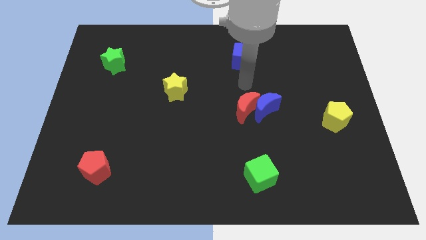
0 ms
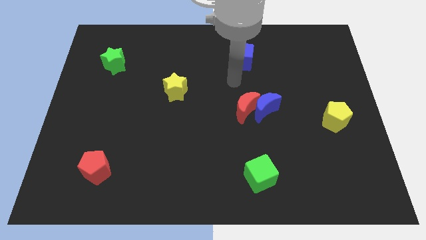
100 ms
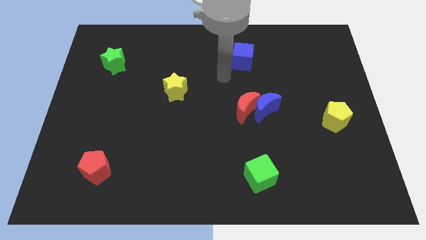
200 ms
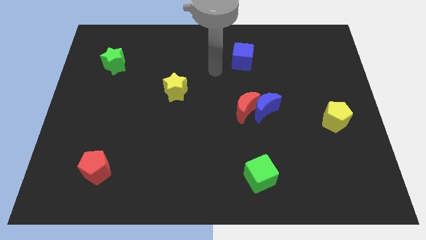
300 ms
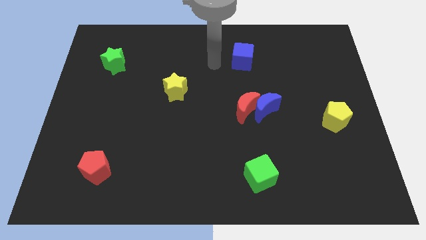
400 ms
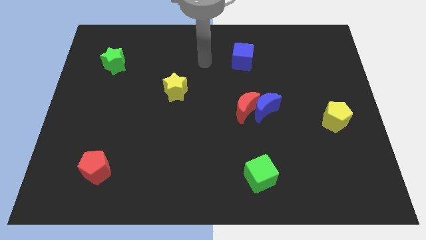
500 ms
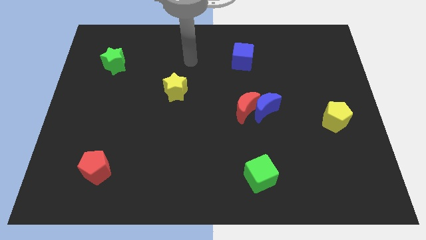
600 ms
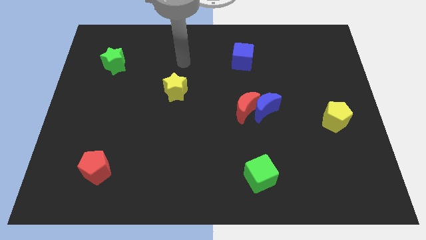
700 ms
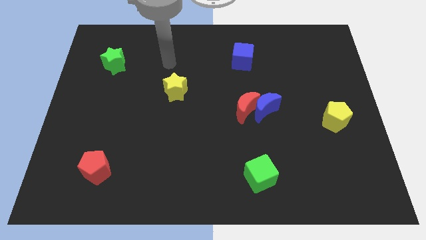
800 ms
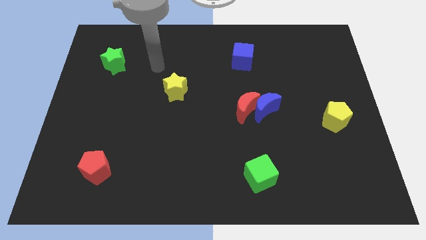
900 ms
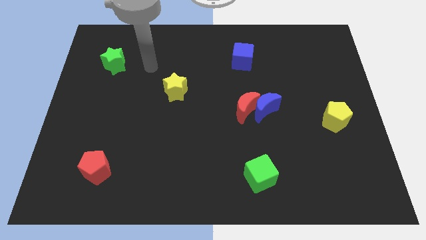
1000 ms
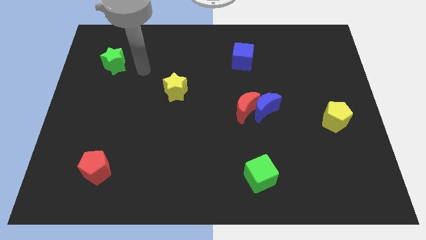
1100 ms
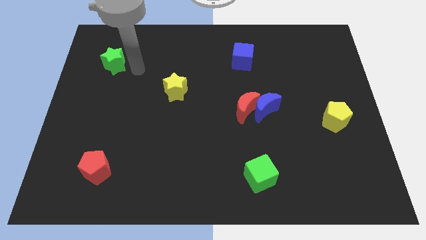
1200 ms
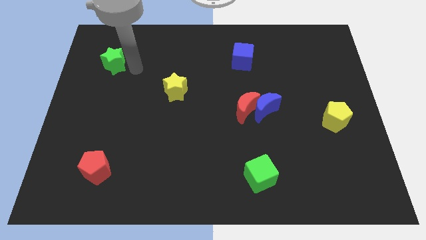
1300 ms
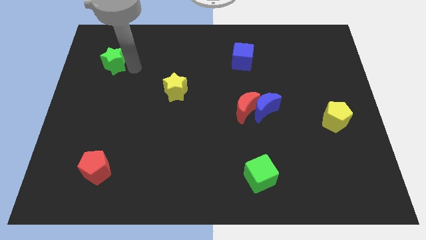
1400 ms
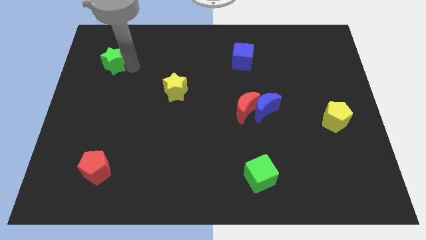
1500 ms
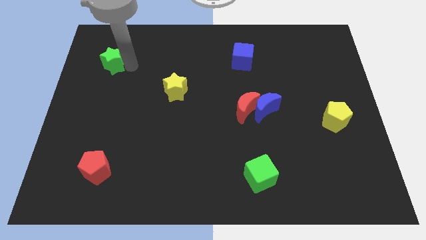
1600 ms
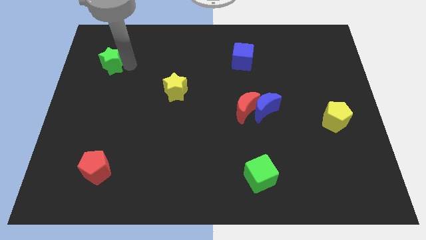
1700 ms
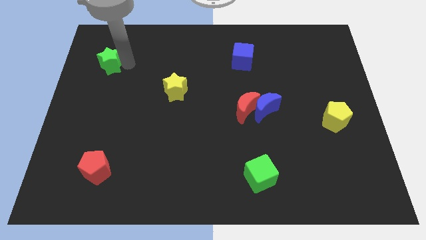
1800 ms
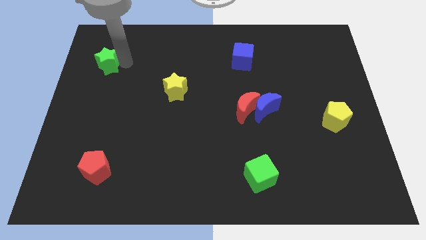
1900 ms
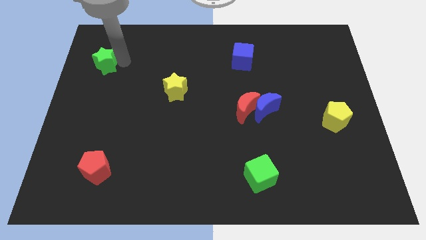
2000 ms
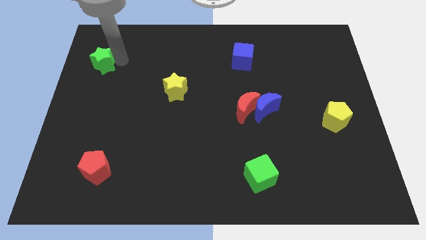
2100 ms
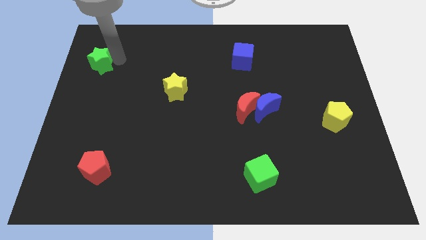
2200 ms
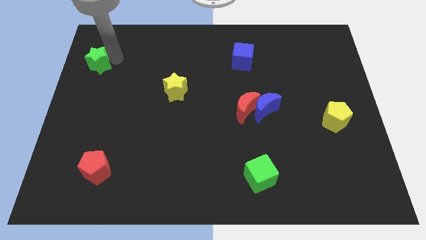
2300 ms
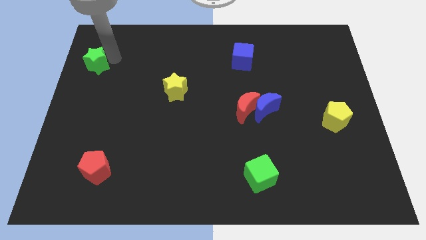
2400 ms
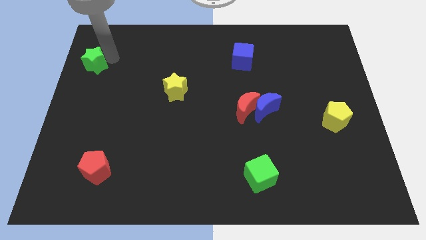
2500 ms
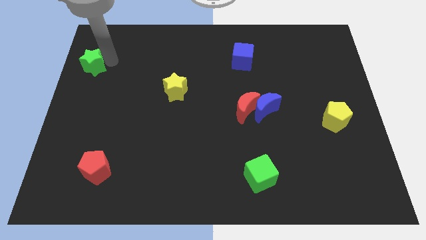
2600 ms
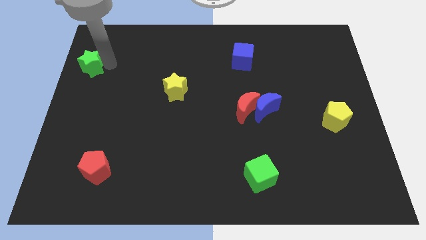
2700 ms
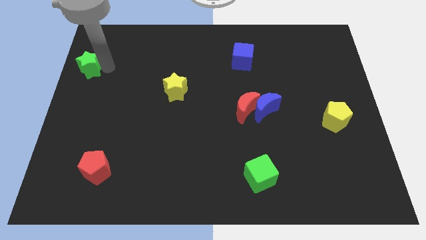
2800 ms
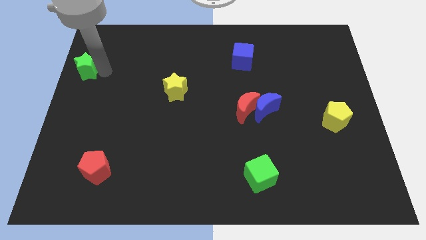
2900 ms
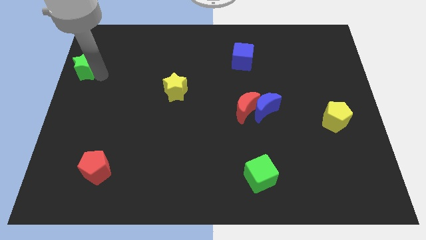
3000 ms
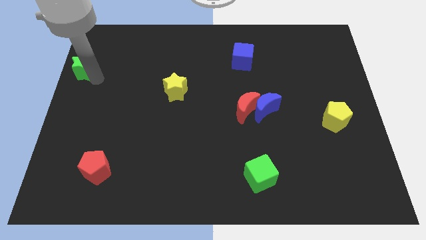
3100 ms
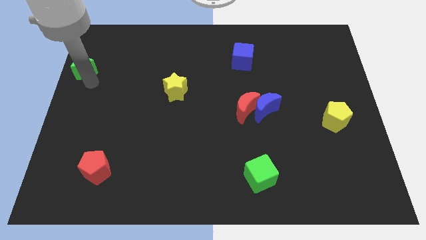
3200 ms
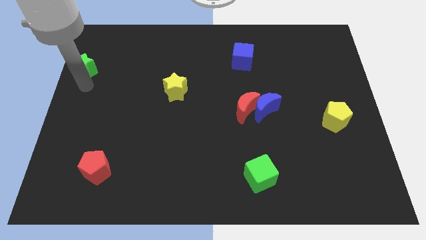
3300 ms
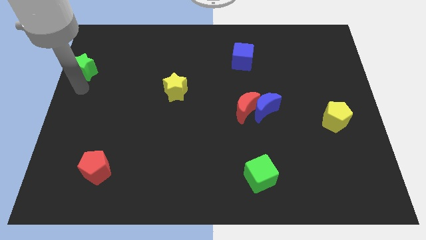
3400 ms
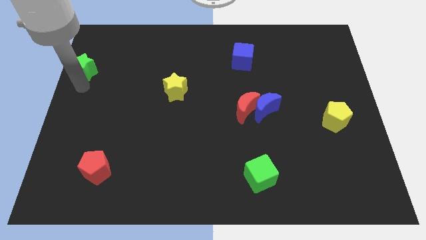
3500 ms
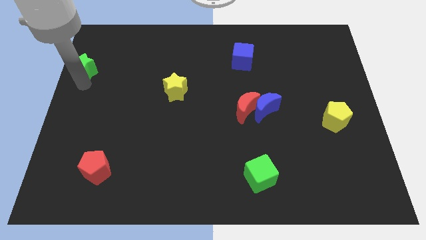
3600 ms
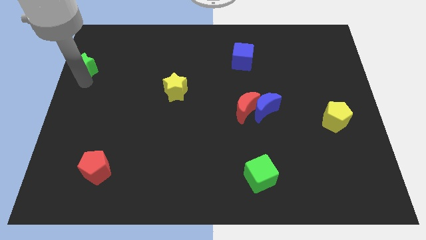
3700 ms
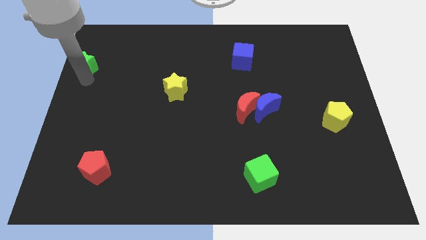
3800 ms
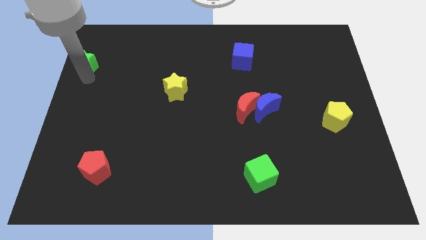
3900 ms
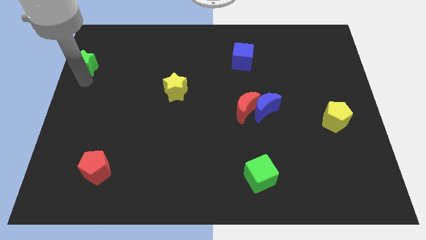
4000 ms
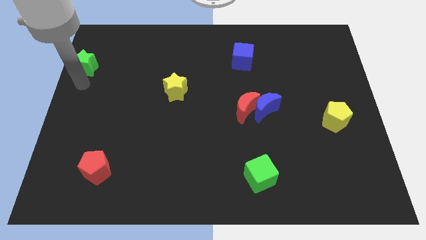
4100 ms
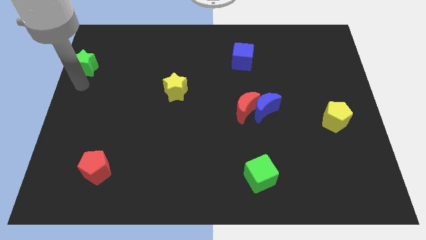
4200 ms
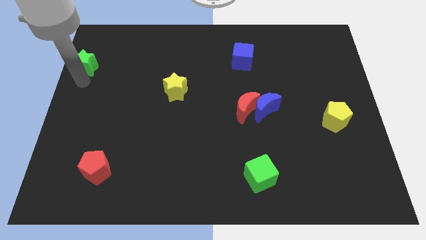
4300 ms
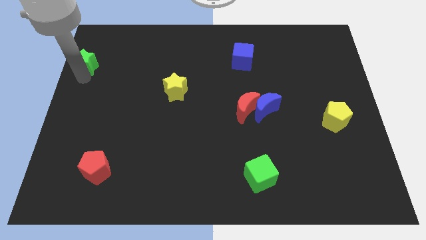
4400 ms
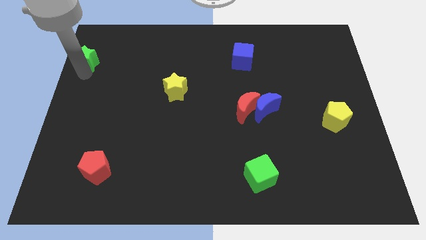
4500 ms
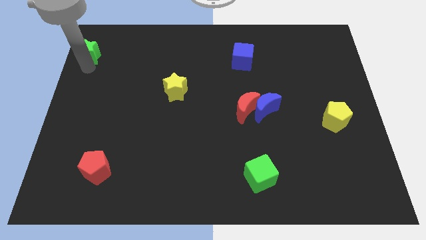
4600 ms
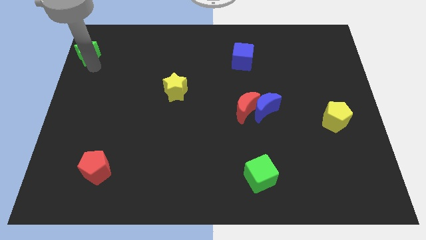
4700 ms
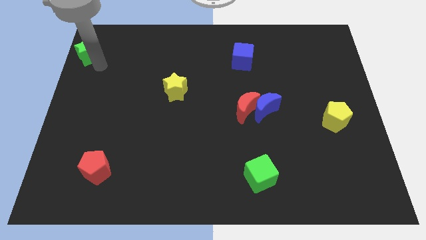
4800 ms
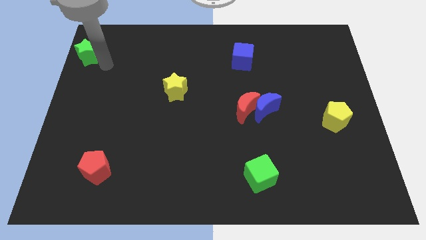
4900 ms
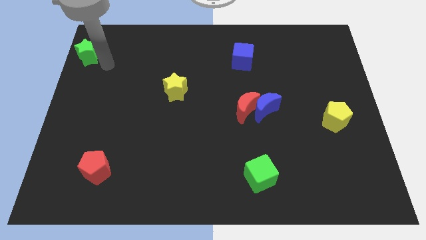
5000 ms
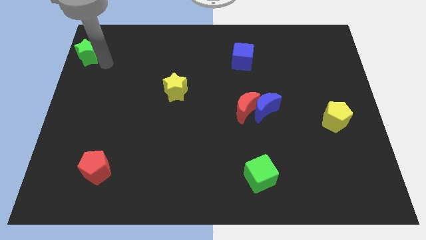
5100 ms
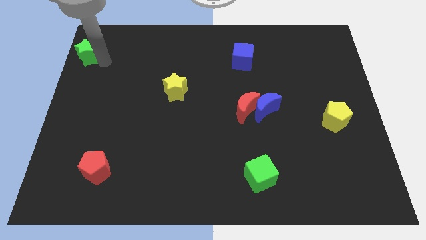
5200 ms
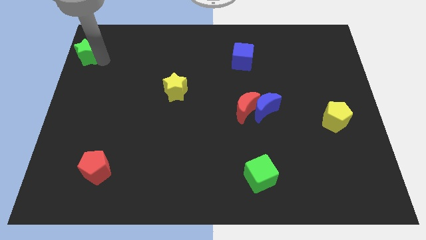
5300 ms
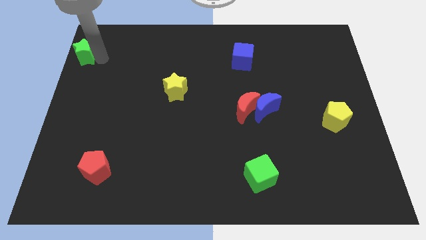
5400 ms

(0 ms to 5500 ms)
slide the green star to the upper left corner

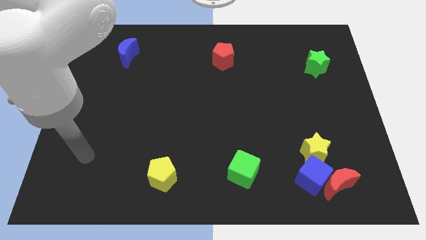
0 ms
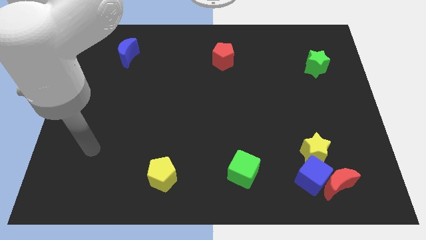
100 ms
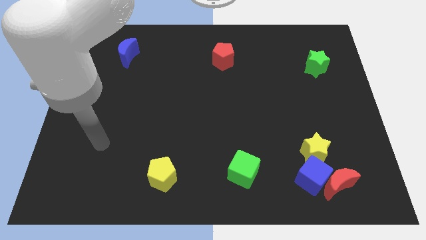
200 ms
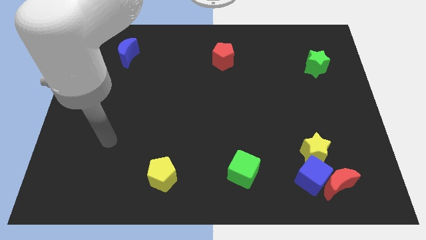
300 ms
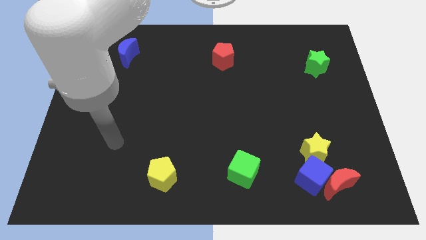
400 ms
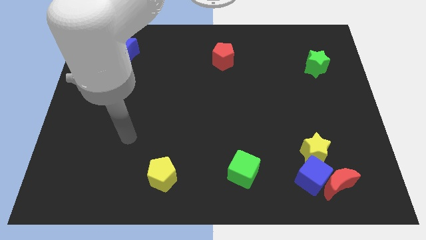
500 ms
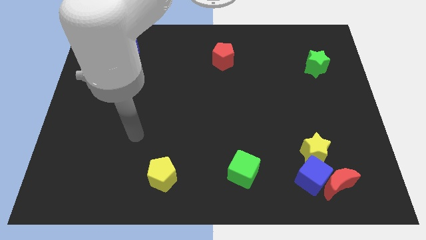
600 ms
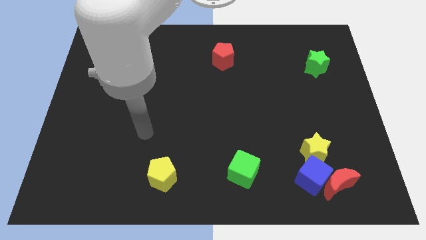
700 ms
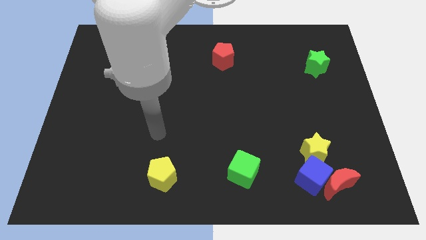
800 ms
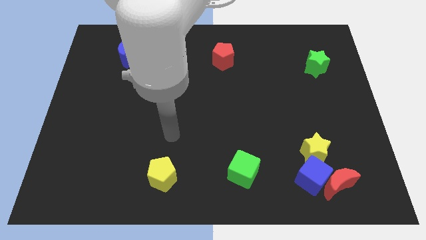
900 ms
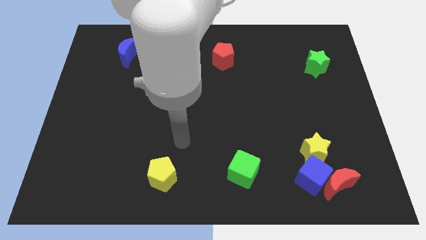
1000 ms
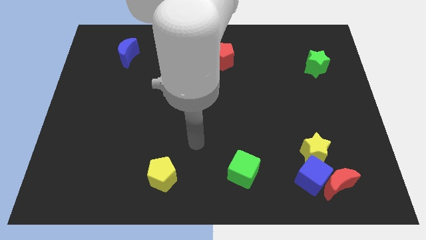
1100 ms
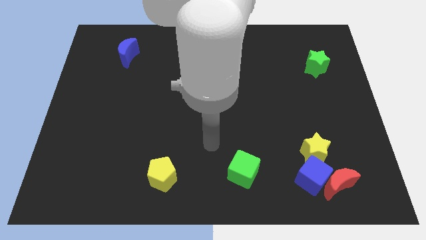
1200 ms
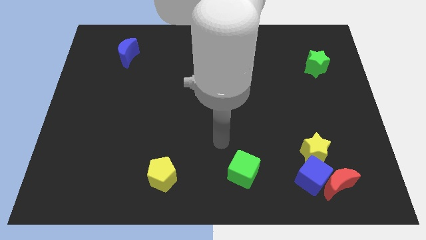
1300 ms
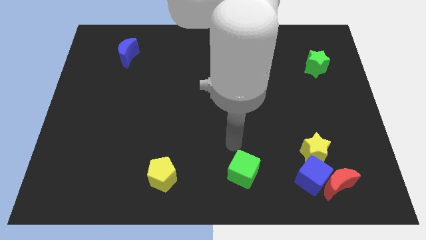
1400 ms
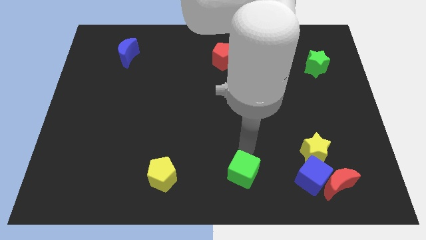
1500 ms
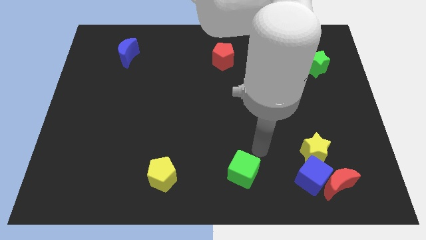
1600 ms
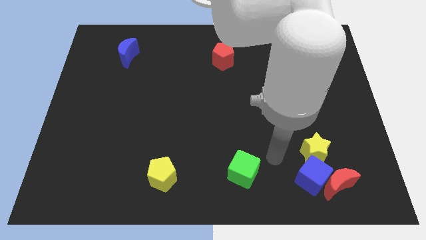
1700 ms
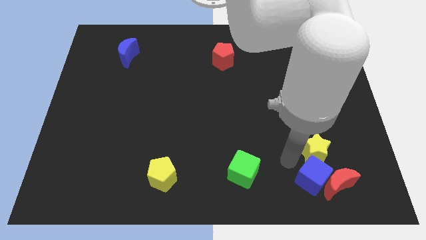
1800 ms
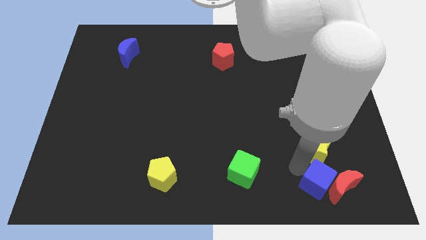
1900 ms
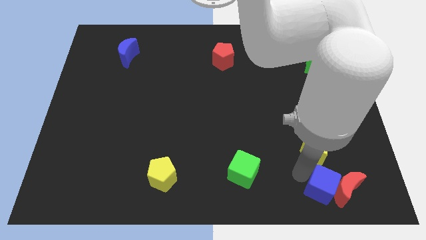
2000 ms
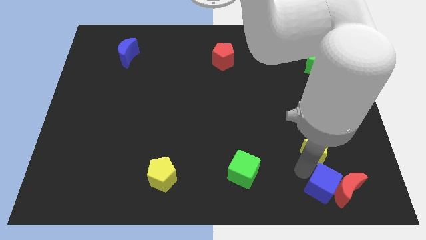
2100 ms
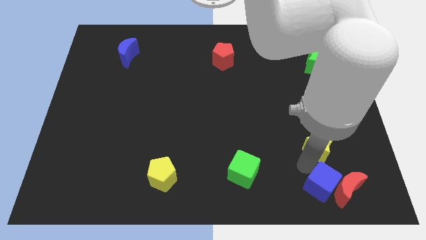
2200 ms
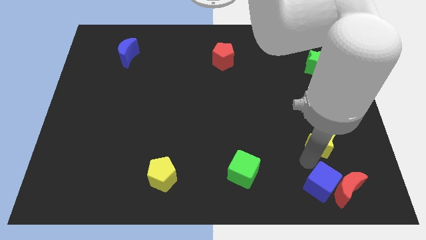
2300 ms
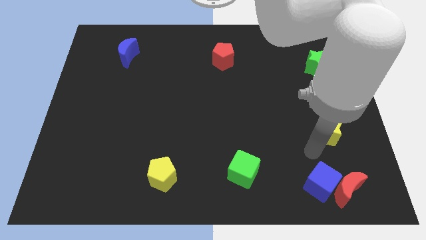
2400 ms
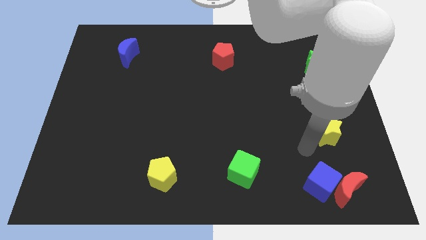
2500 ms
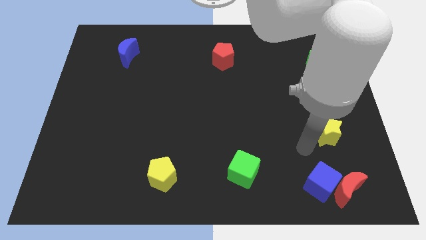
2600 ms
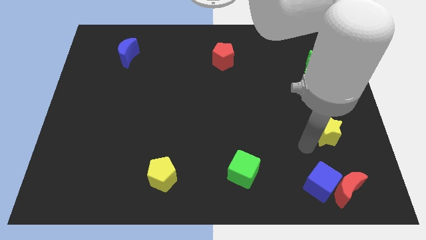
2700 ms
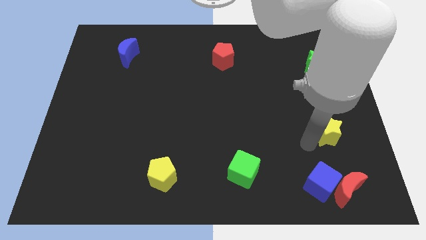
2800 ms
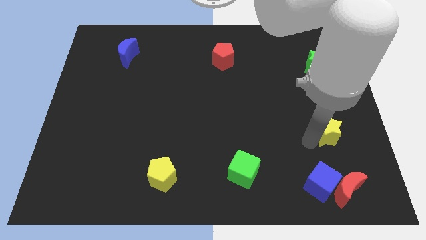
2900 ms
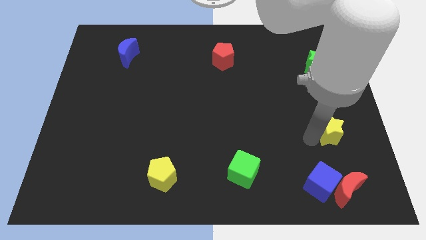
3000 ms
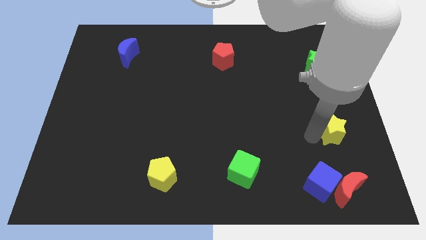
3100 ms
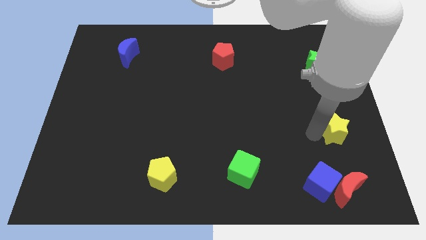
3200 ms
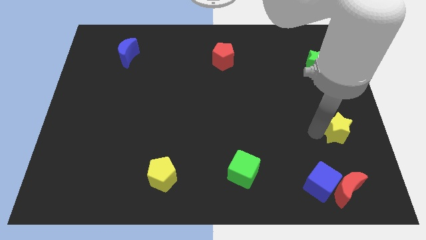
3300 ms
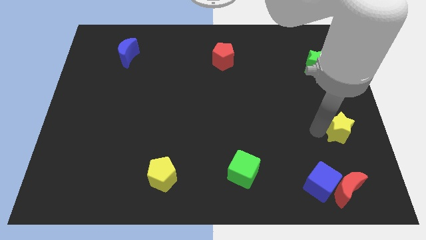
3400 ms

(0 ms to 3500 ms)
slide the yellow star to the right side
